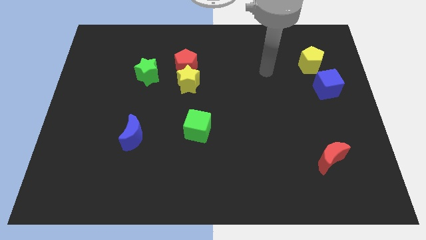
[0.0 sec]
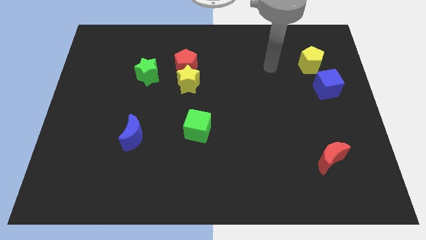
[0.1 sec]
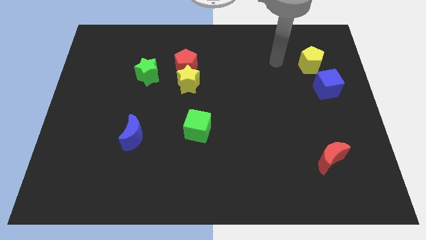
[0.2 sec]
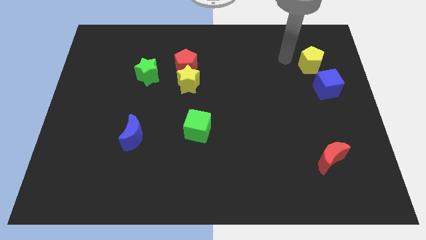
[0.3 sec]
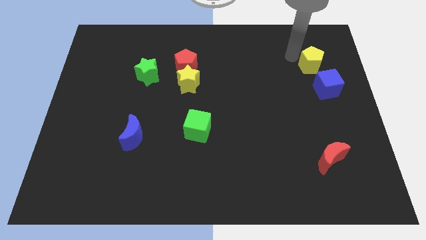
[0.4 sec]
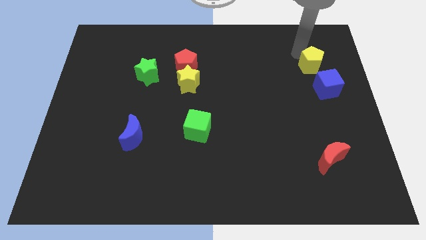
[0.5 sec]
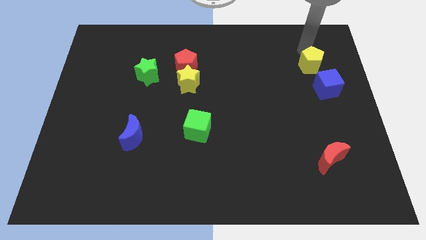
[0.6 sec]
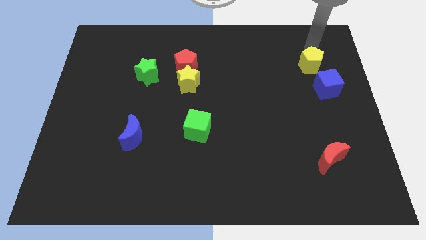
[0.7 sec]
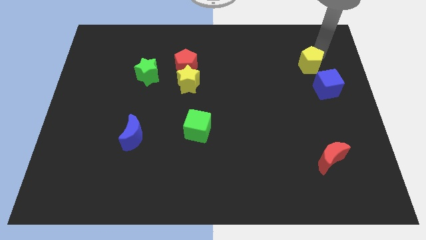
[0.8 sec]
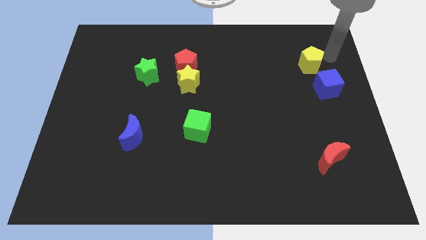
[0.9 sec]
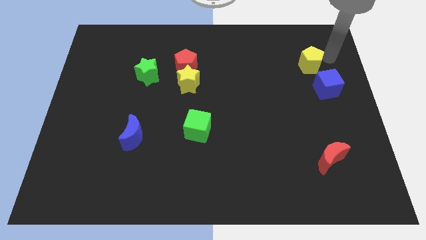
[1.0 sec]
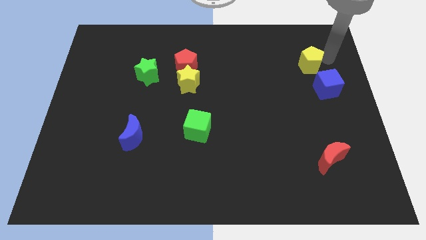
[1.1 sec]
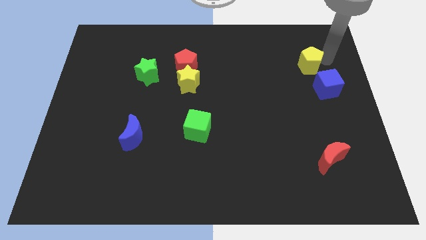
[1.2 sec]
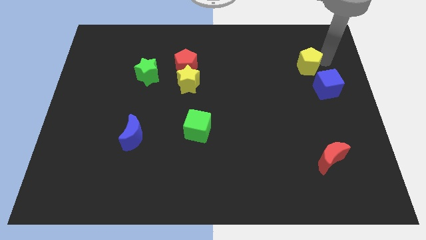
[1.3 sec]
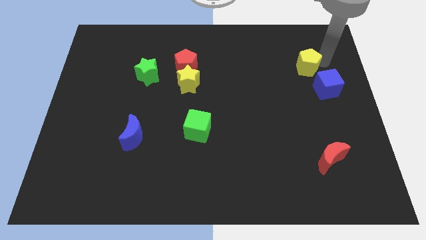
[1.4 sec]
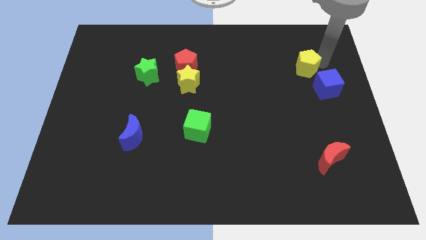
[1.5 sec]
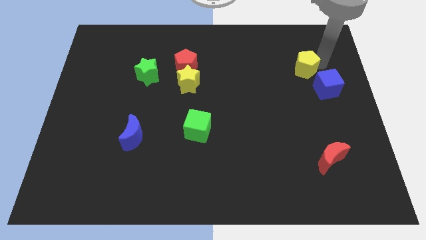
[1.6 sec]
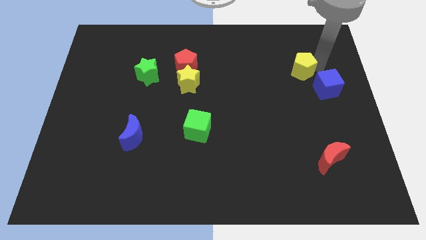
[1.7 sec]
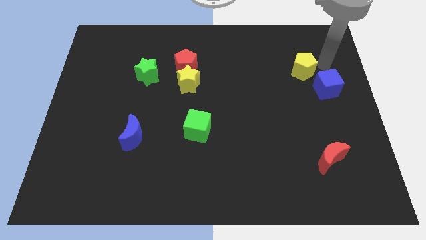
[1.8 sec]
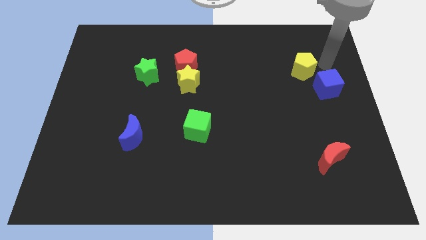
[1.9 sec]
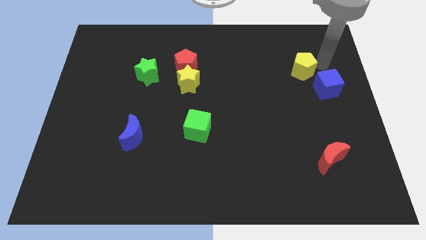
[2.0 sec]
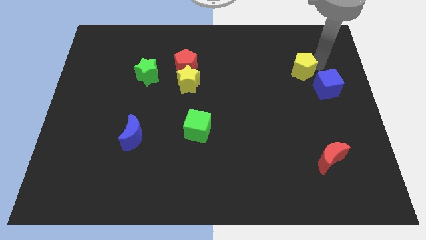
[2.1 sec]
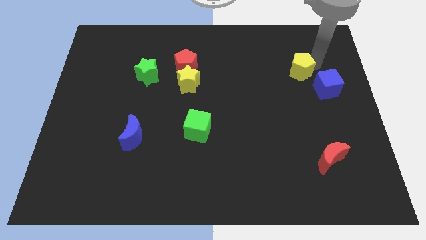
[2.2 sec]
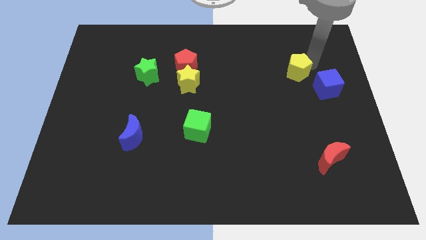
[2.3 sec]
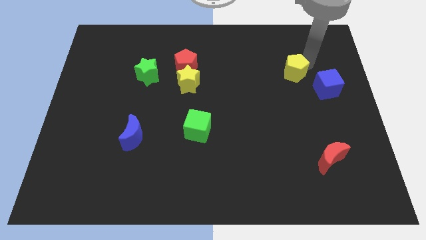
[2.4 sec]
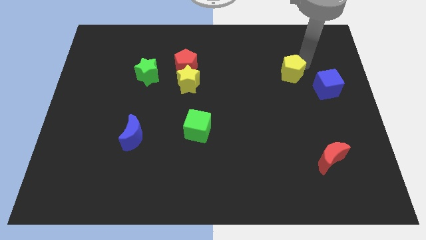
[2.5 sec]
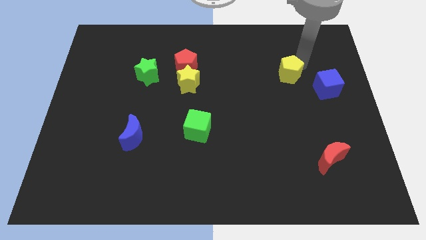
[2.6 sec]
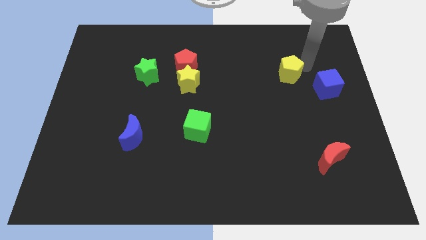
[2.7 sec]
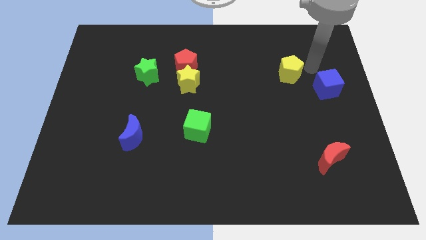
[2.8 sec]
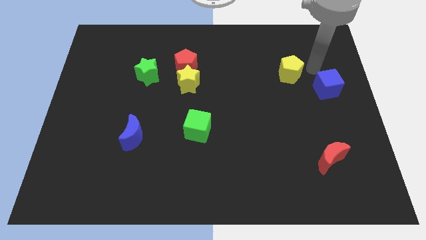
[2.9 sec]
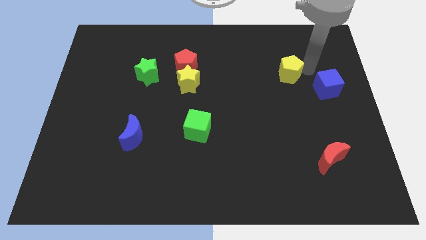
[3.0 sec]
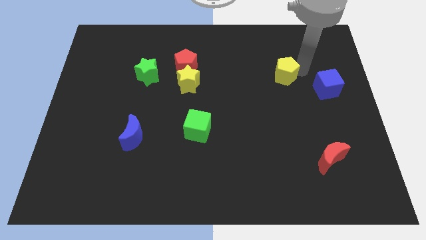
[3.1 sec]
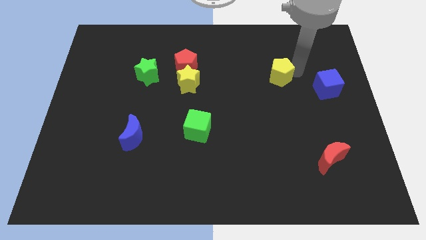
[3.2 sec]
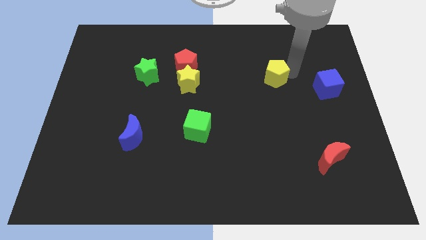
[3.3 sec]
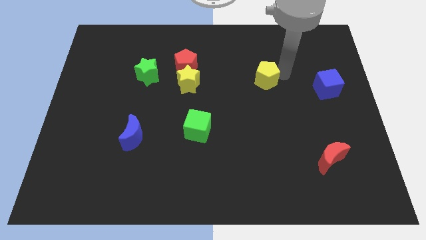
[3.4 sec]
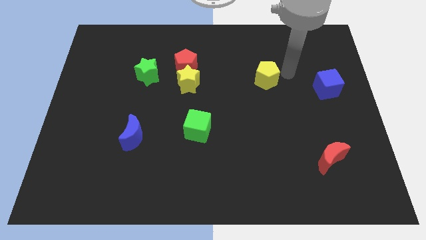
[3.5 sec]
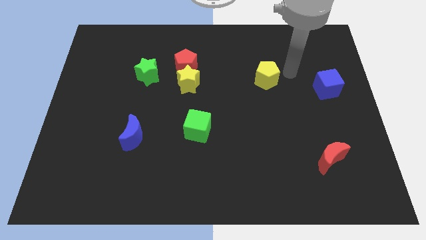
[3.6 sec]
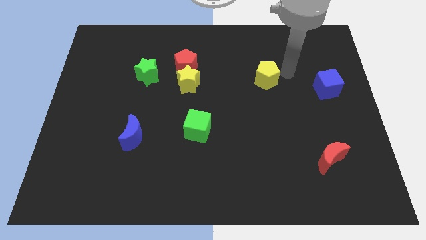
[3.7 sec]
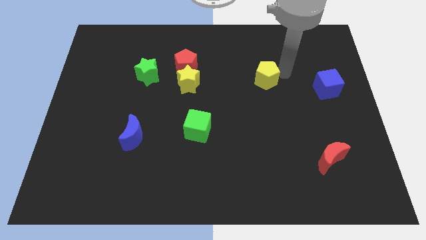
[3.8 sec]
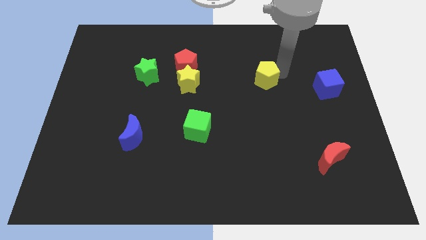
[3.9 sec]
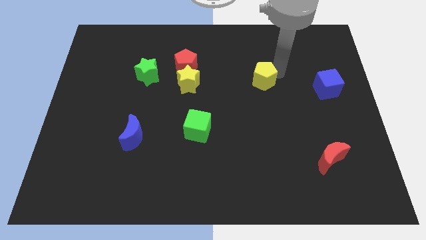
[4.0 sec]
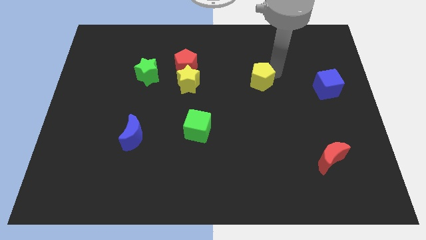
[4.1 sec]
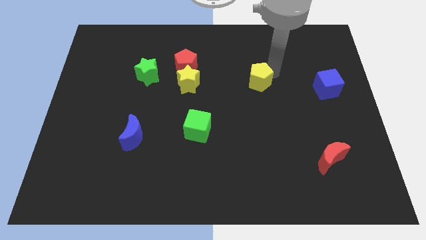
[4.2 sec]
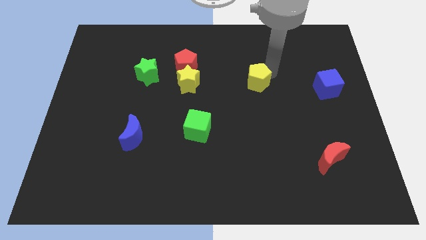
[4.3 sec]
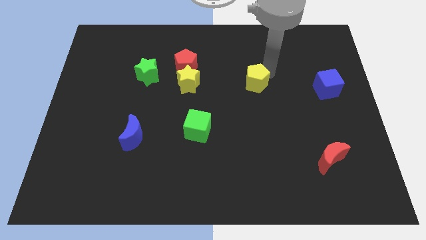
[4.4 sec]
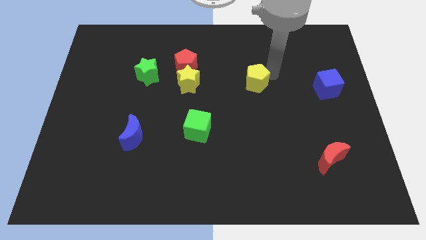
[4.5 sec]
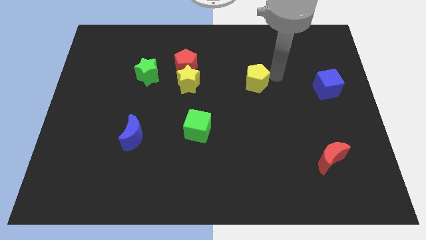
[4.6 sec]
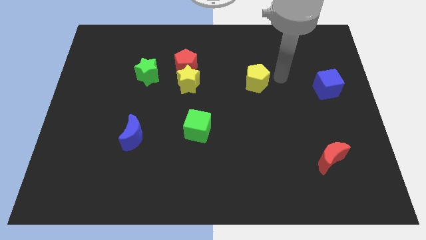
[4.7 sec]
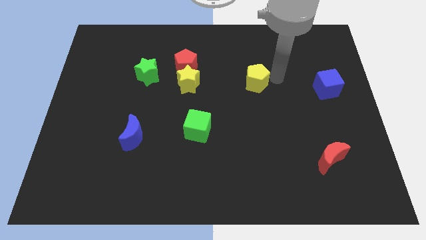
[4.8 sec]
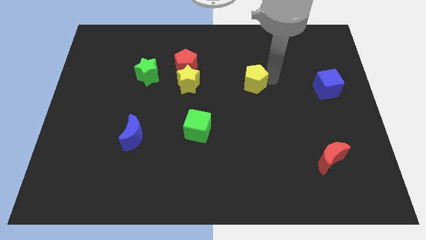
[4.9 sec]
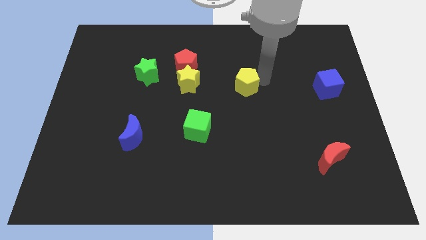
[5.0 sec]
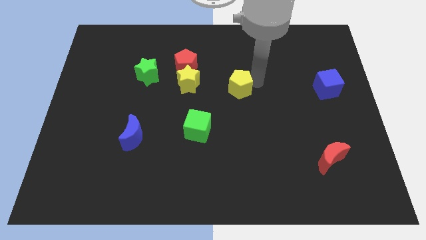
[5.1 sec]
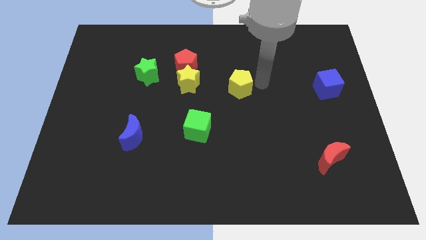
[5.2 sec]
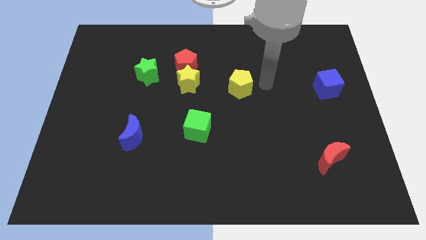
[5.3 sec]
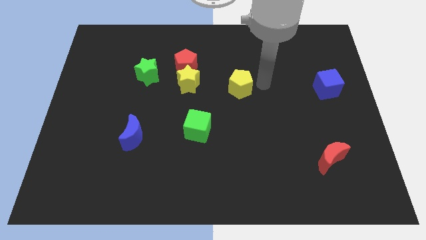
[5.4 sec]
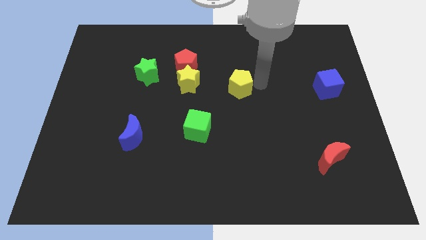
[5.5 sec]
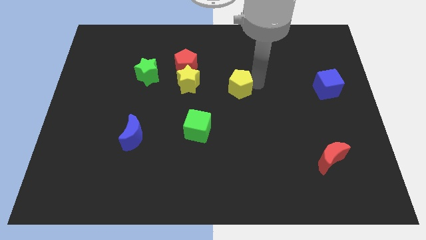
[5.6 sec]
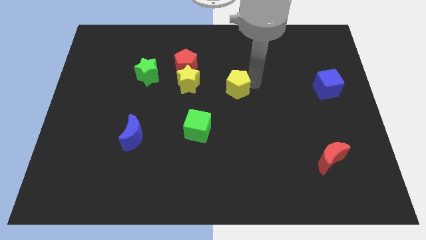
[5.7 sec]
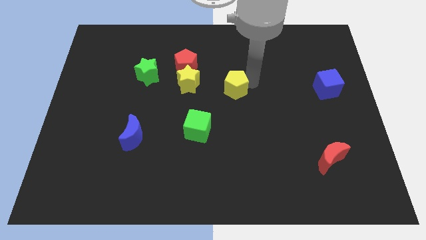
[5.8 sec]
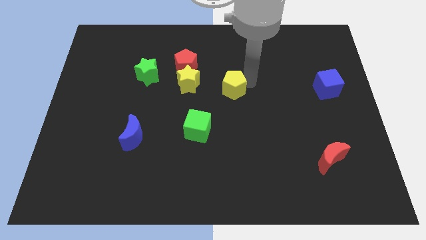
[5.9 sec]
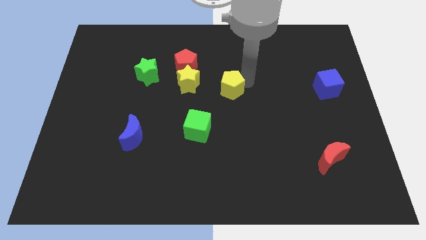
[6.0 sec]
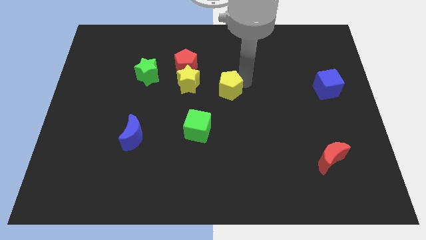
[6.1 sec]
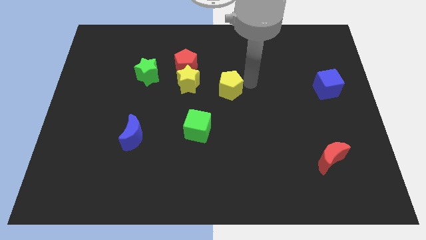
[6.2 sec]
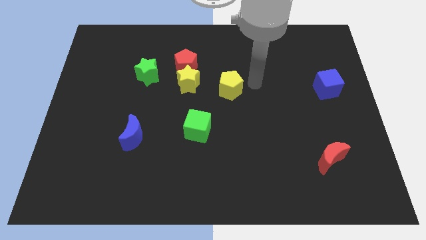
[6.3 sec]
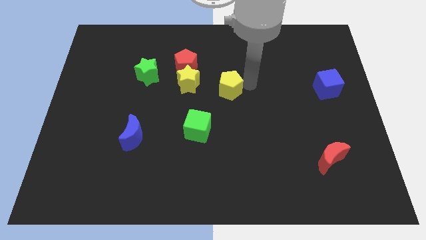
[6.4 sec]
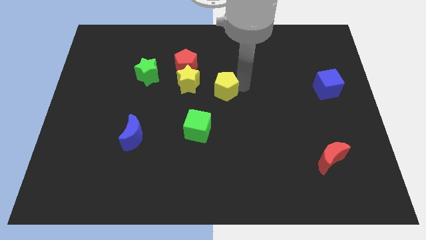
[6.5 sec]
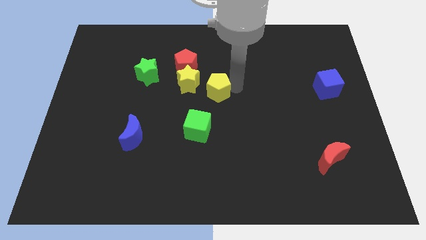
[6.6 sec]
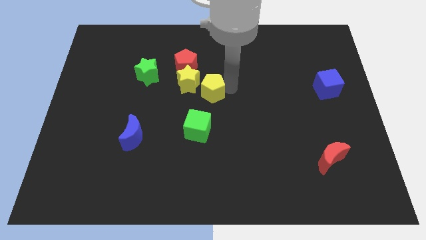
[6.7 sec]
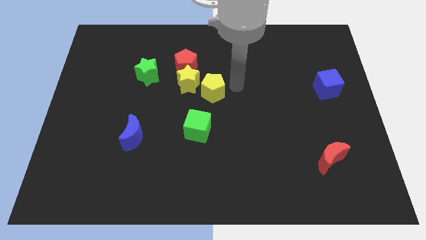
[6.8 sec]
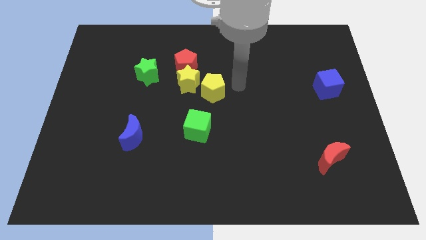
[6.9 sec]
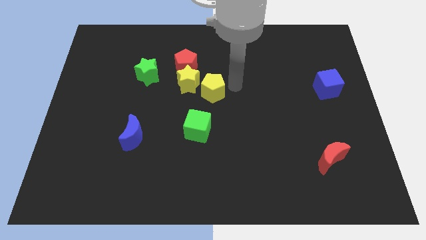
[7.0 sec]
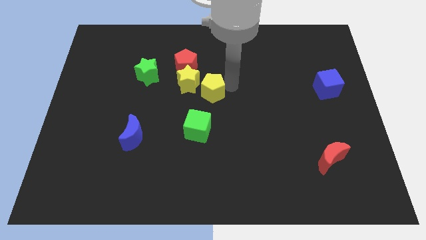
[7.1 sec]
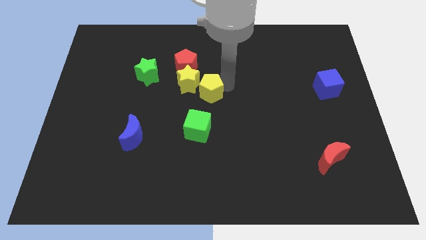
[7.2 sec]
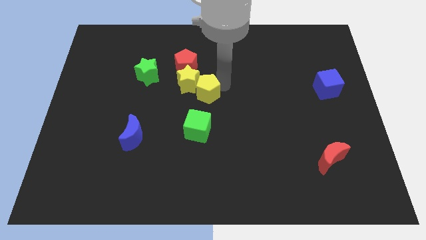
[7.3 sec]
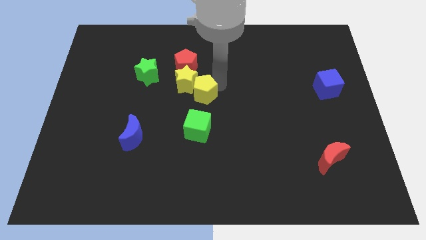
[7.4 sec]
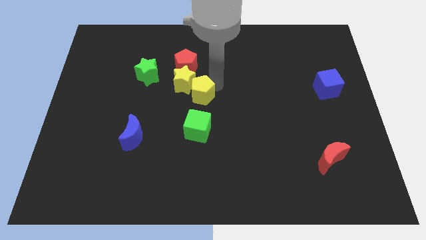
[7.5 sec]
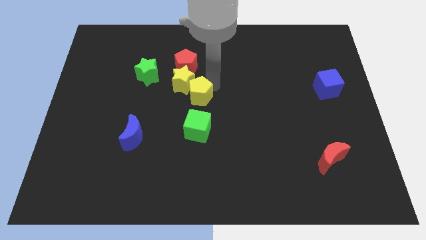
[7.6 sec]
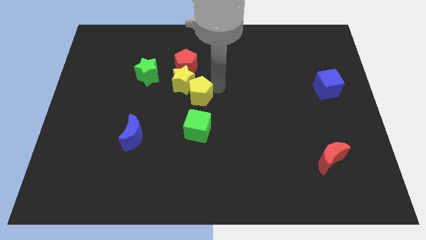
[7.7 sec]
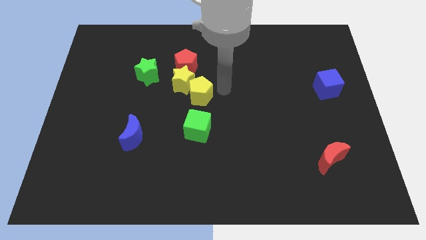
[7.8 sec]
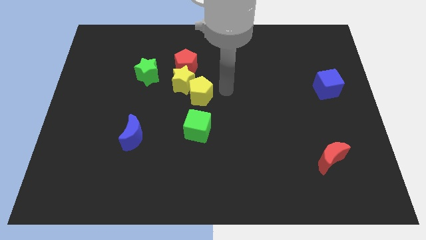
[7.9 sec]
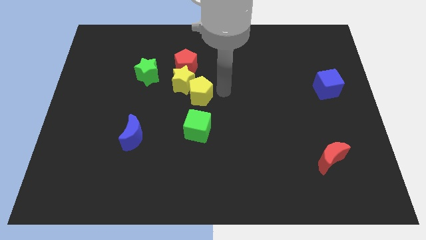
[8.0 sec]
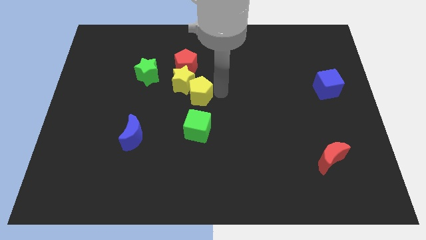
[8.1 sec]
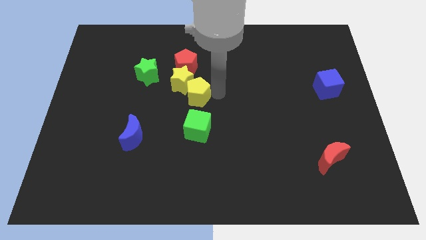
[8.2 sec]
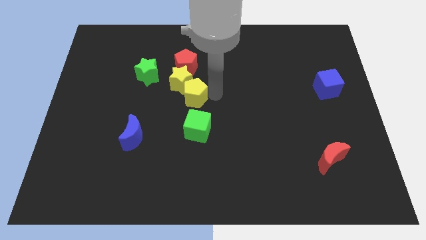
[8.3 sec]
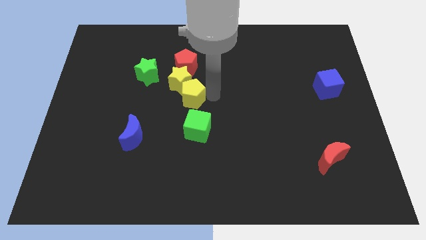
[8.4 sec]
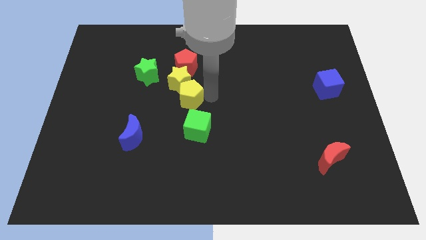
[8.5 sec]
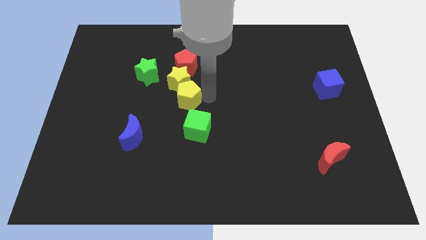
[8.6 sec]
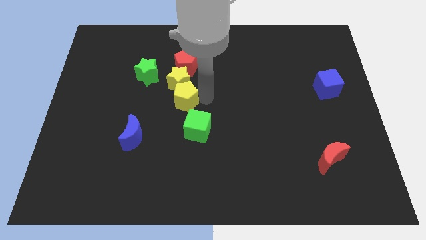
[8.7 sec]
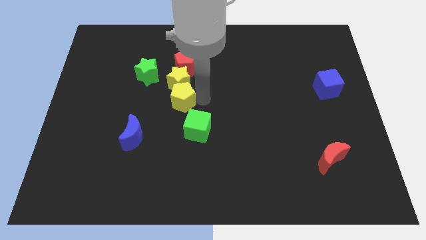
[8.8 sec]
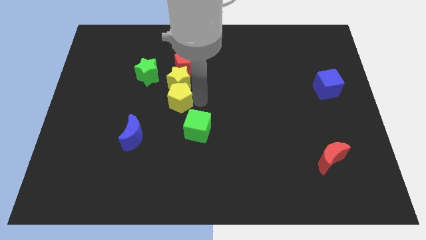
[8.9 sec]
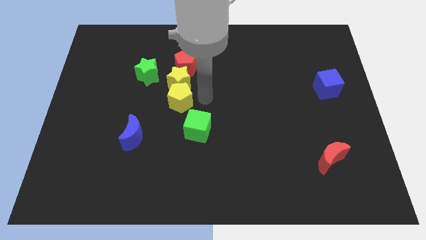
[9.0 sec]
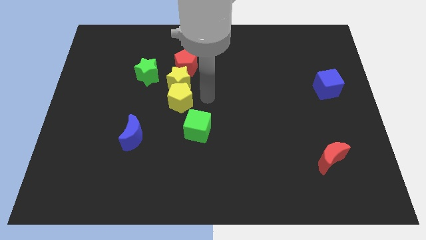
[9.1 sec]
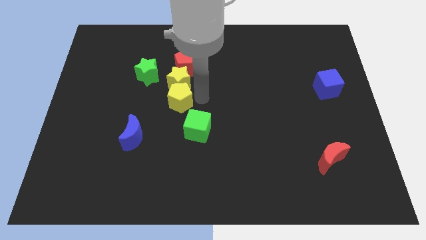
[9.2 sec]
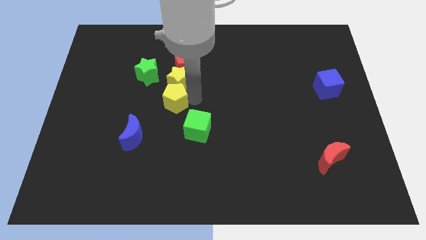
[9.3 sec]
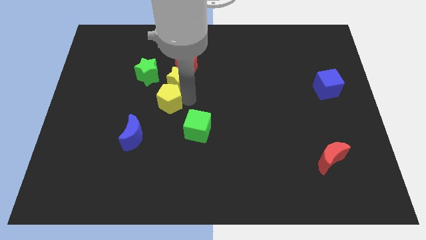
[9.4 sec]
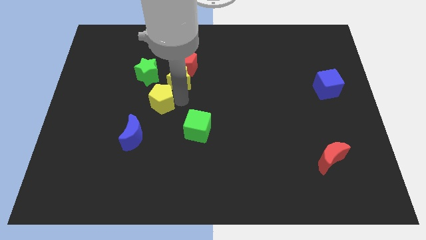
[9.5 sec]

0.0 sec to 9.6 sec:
slide the yellow pentagon to the bottom of the green star
